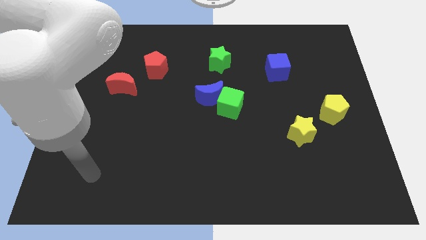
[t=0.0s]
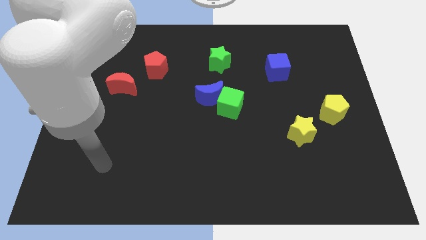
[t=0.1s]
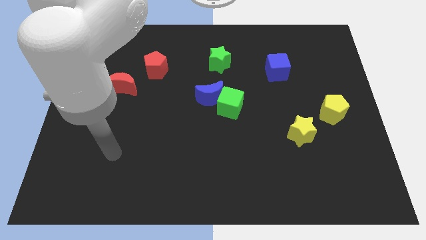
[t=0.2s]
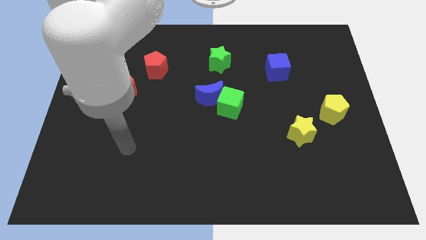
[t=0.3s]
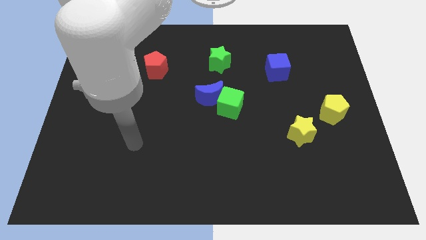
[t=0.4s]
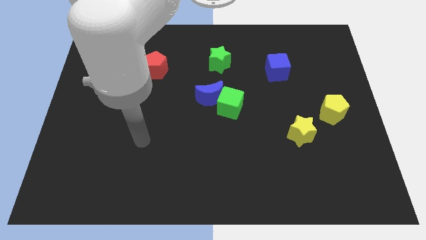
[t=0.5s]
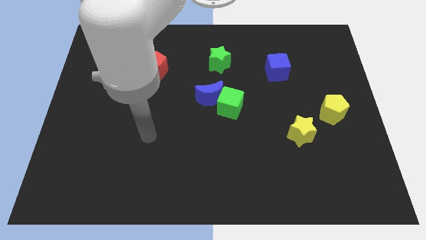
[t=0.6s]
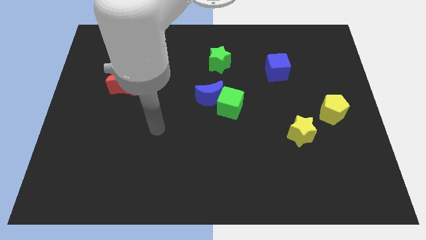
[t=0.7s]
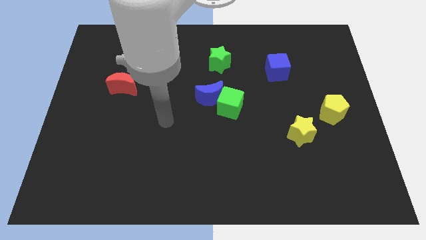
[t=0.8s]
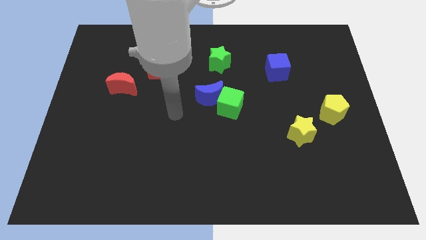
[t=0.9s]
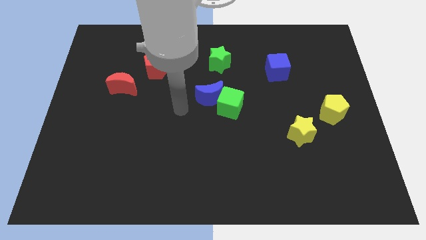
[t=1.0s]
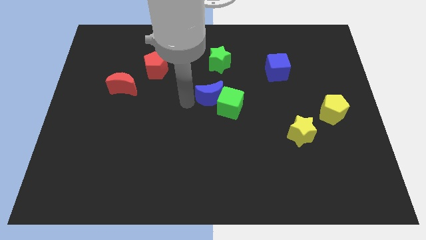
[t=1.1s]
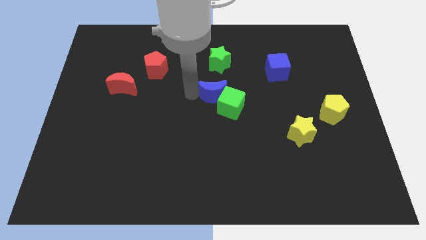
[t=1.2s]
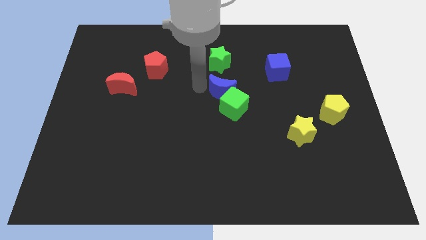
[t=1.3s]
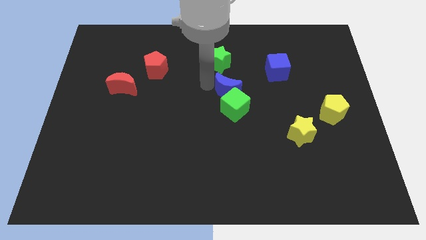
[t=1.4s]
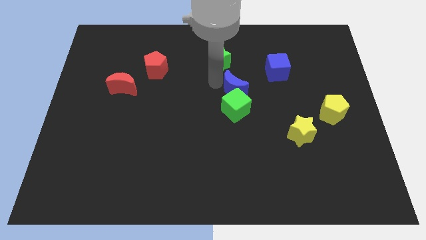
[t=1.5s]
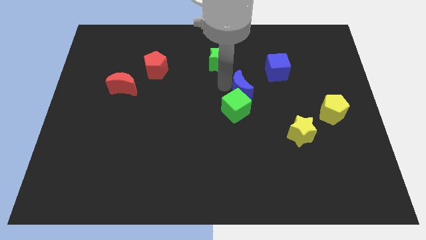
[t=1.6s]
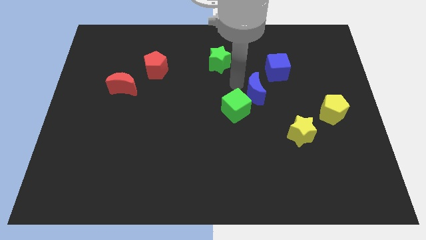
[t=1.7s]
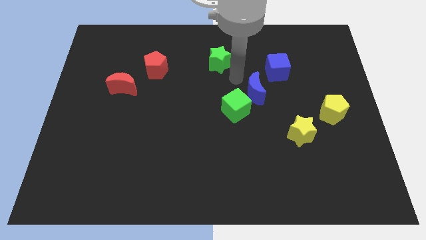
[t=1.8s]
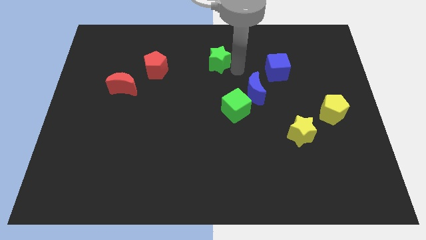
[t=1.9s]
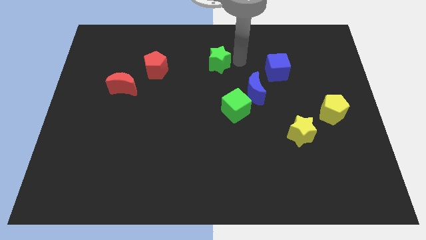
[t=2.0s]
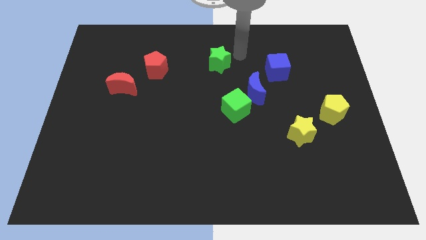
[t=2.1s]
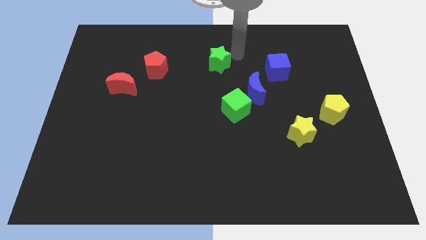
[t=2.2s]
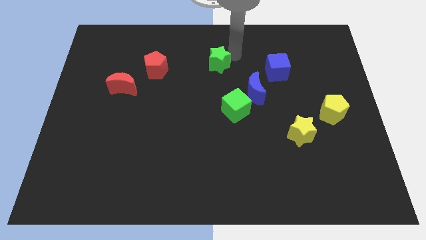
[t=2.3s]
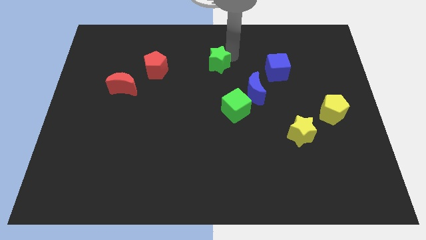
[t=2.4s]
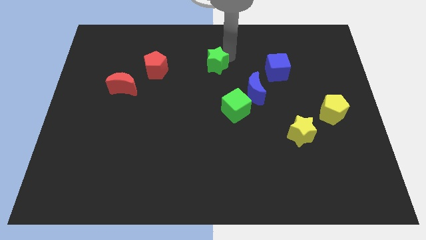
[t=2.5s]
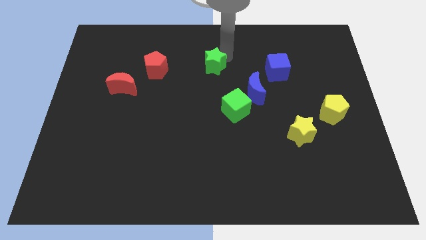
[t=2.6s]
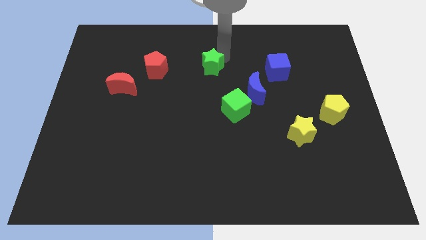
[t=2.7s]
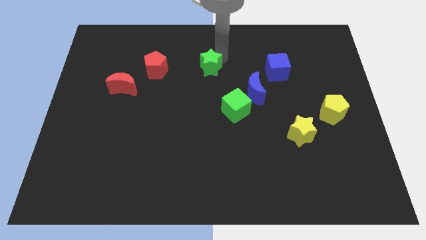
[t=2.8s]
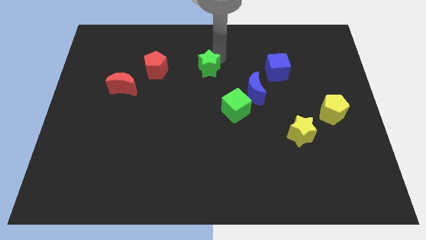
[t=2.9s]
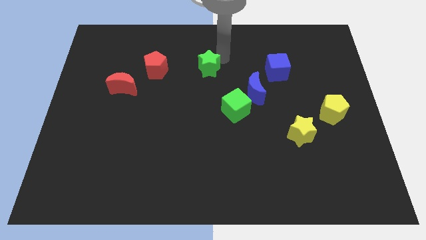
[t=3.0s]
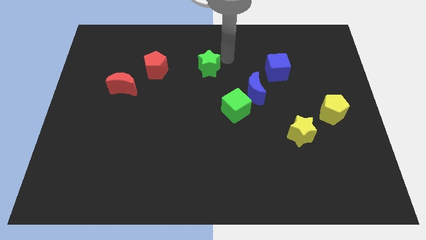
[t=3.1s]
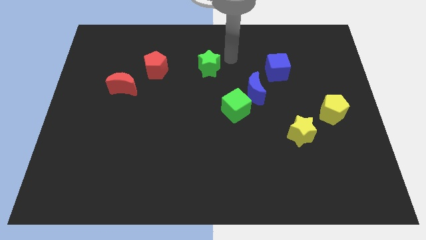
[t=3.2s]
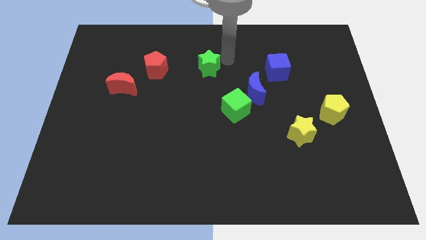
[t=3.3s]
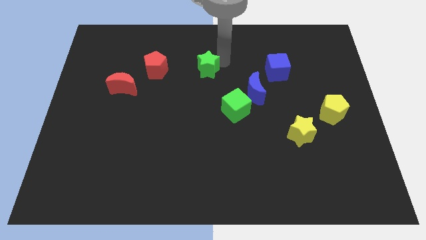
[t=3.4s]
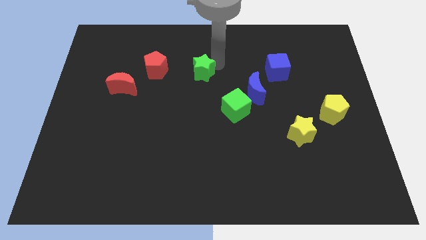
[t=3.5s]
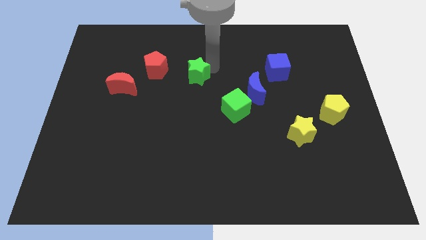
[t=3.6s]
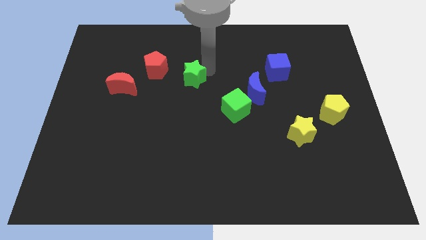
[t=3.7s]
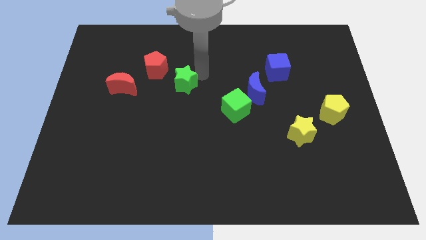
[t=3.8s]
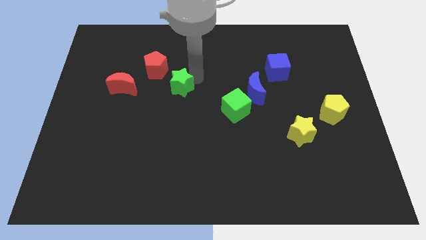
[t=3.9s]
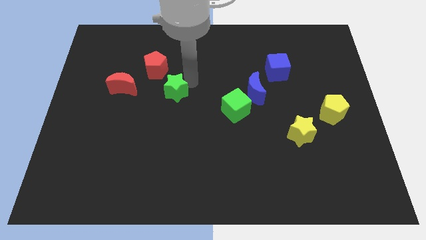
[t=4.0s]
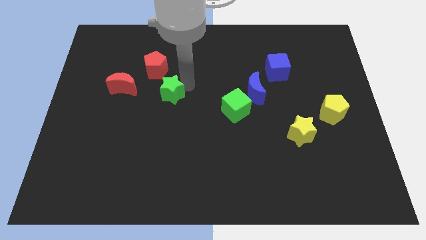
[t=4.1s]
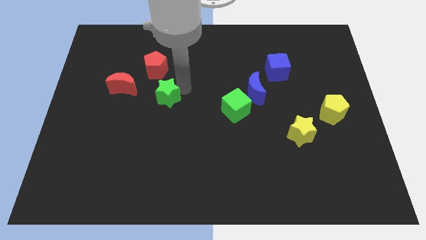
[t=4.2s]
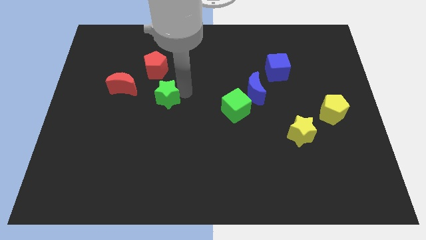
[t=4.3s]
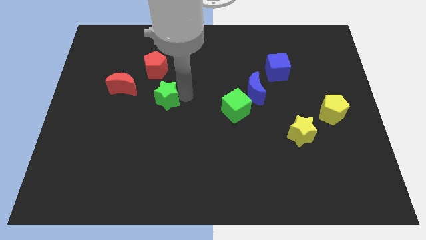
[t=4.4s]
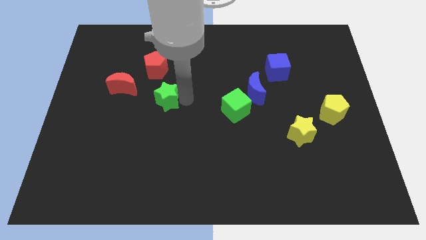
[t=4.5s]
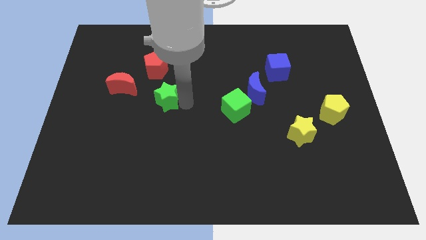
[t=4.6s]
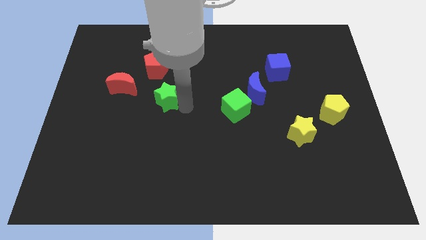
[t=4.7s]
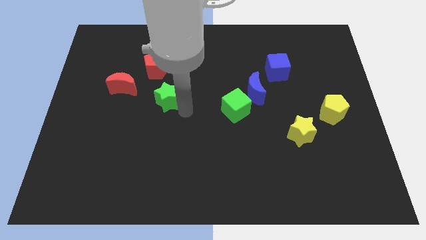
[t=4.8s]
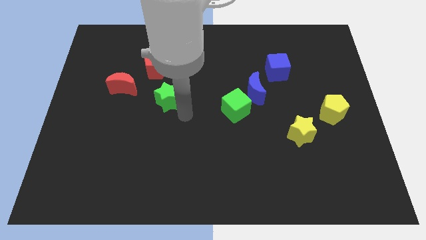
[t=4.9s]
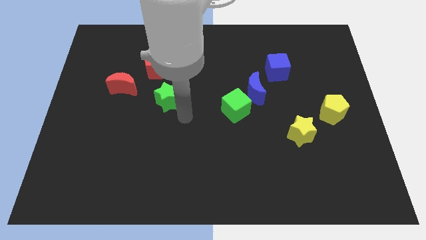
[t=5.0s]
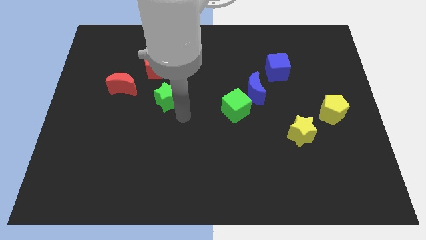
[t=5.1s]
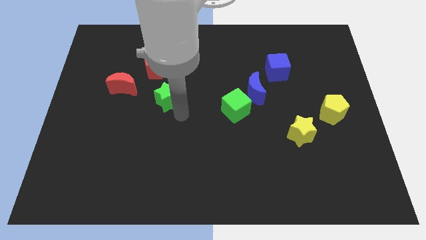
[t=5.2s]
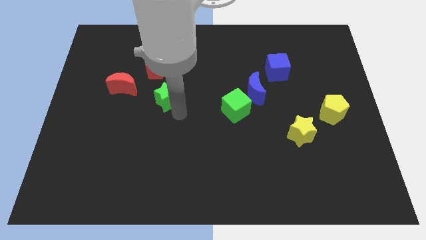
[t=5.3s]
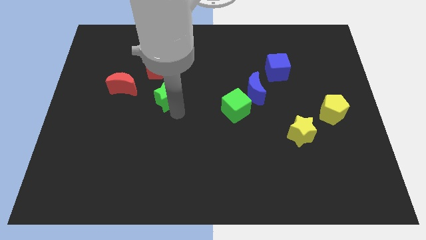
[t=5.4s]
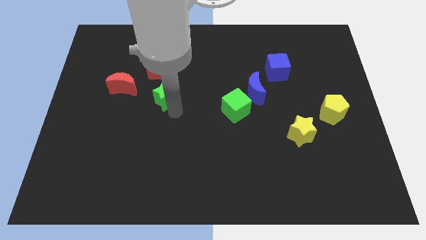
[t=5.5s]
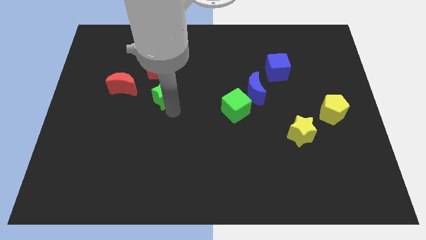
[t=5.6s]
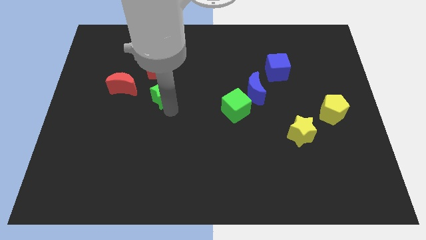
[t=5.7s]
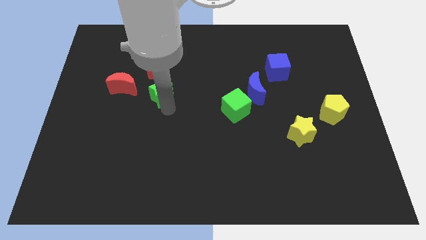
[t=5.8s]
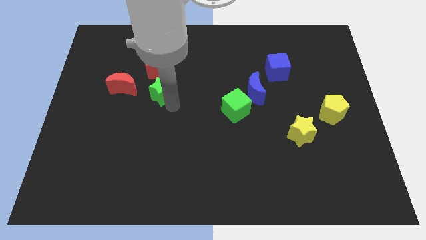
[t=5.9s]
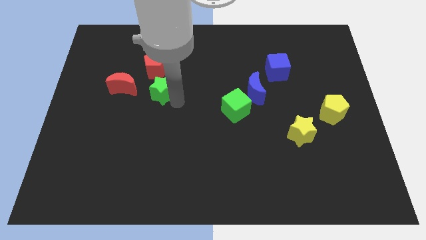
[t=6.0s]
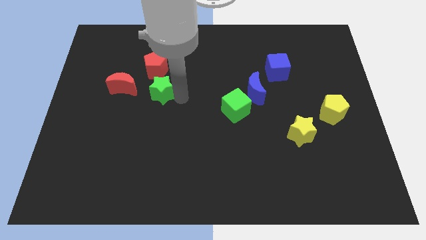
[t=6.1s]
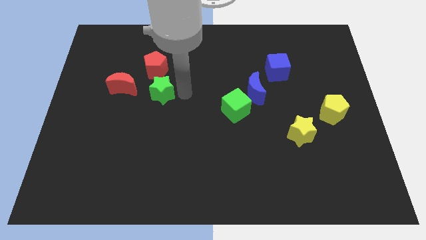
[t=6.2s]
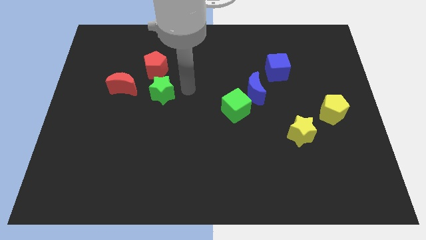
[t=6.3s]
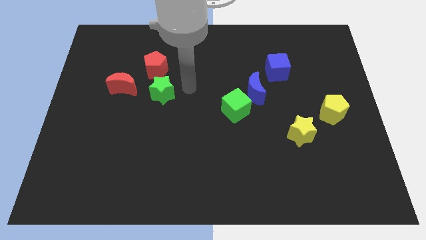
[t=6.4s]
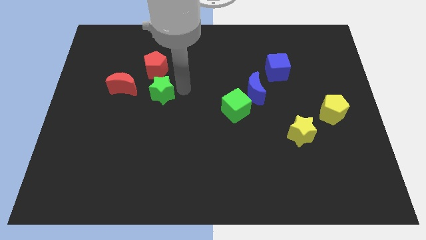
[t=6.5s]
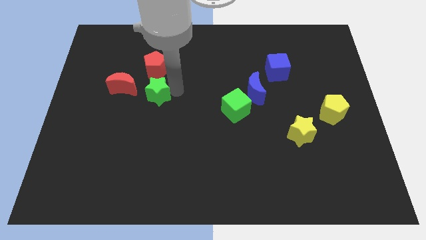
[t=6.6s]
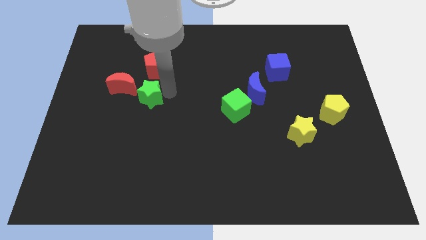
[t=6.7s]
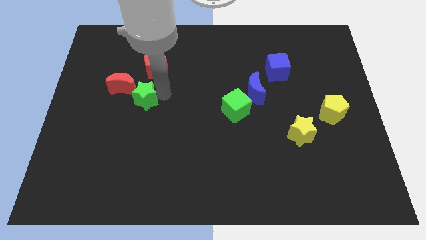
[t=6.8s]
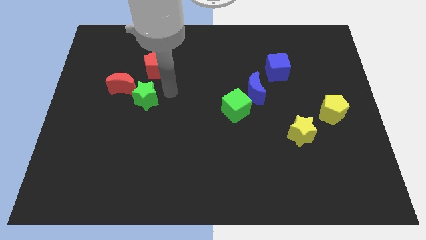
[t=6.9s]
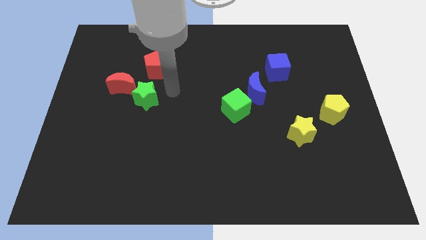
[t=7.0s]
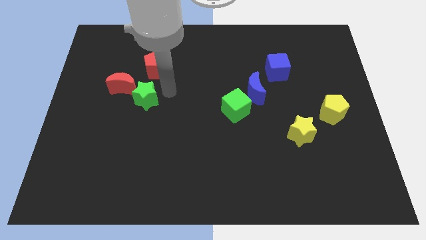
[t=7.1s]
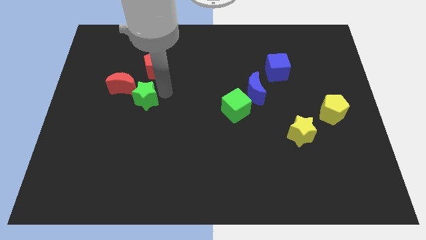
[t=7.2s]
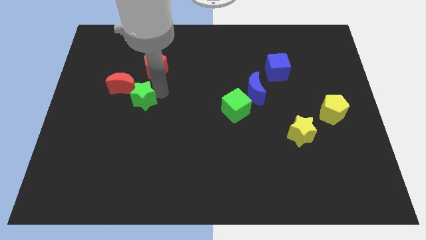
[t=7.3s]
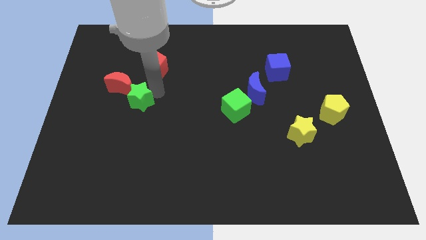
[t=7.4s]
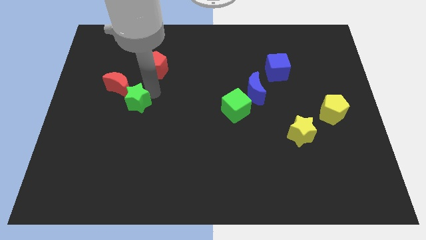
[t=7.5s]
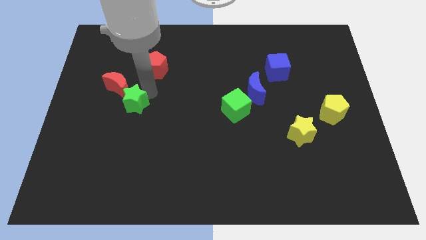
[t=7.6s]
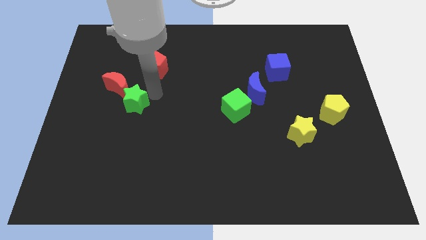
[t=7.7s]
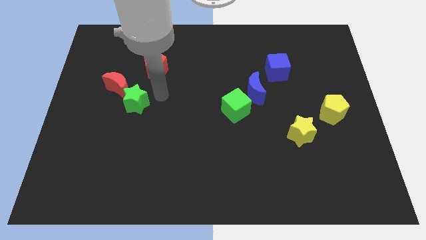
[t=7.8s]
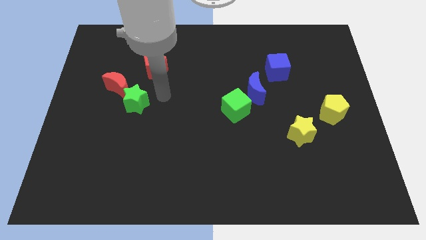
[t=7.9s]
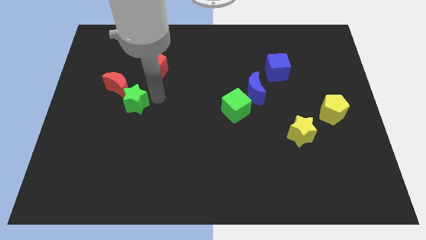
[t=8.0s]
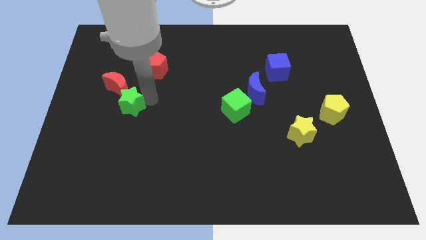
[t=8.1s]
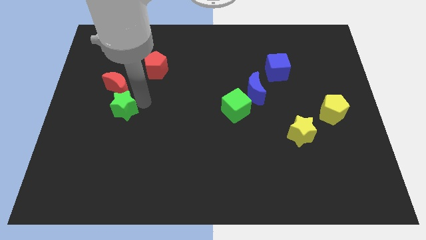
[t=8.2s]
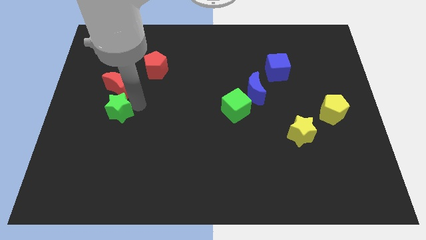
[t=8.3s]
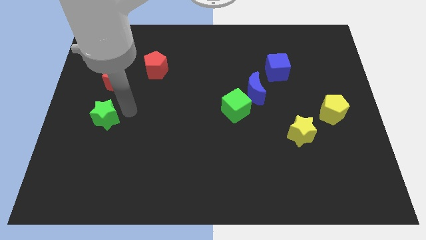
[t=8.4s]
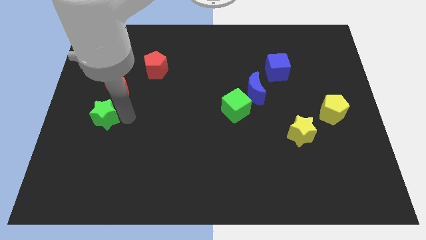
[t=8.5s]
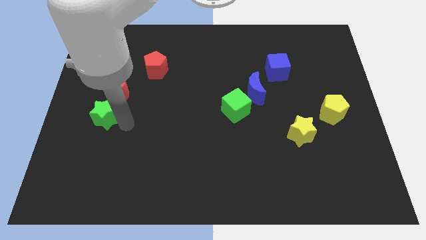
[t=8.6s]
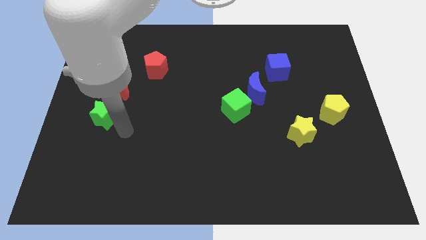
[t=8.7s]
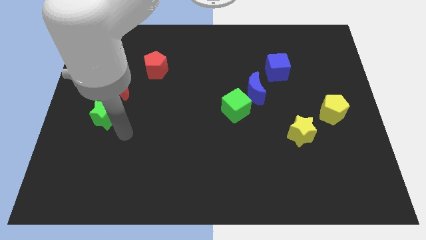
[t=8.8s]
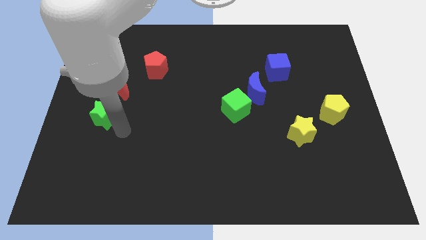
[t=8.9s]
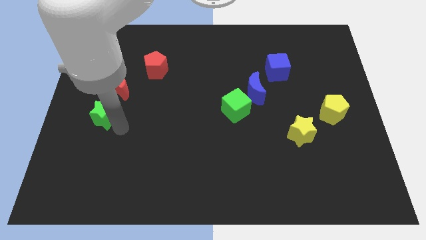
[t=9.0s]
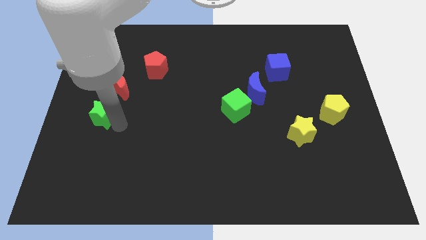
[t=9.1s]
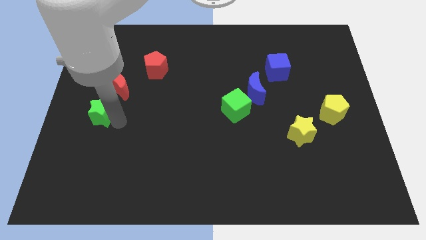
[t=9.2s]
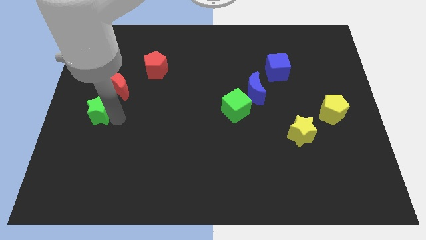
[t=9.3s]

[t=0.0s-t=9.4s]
push the green star to the center left
